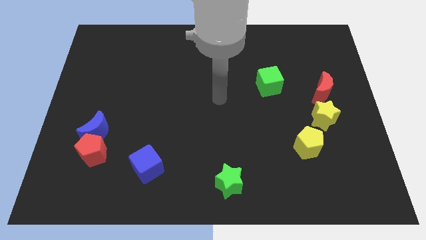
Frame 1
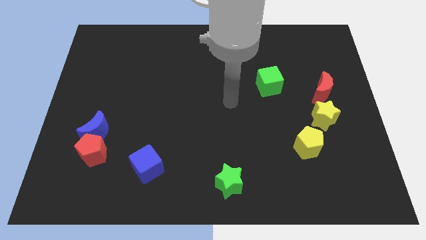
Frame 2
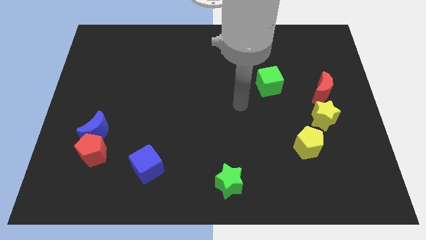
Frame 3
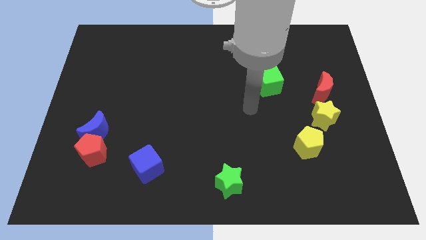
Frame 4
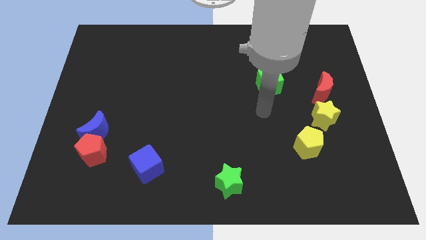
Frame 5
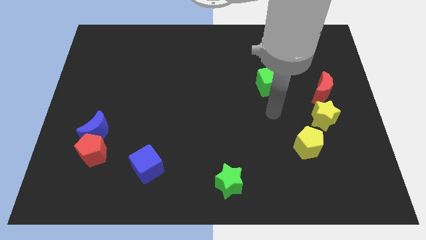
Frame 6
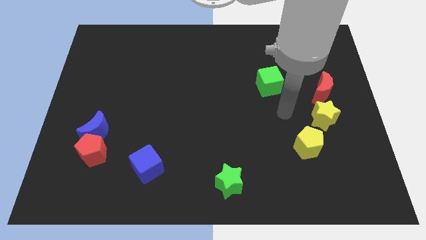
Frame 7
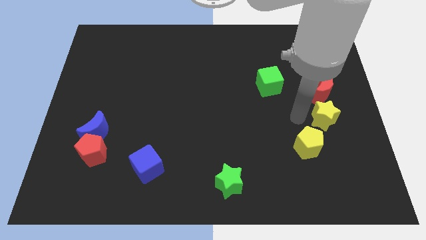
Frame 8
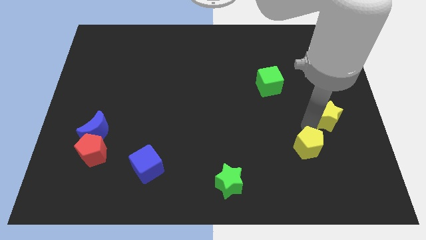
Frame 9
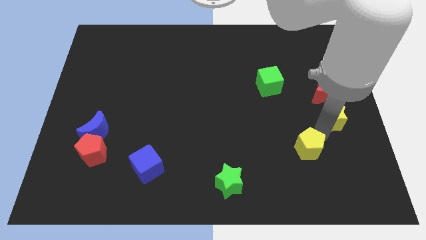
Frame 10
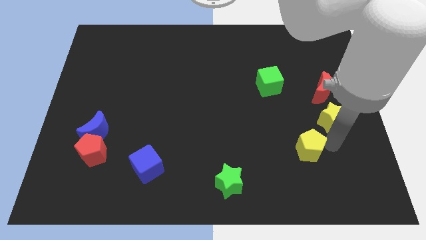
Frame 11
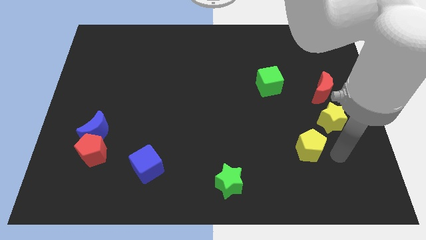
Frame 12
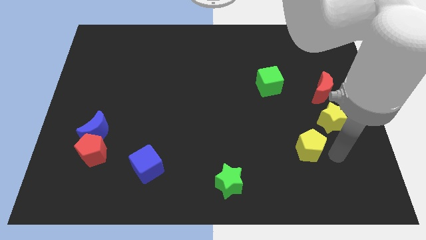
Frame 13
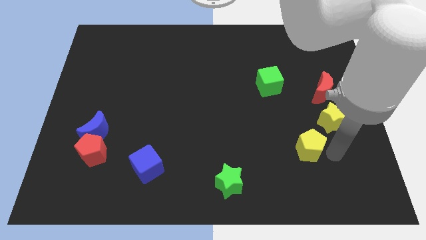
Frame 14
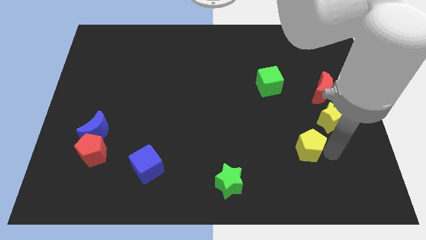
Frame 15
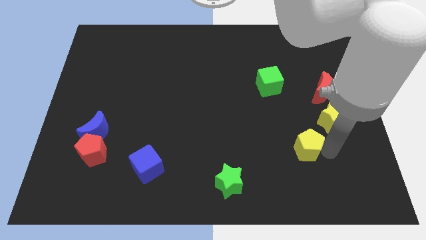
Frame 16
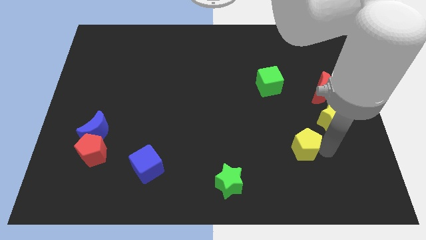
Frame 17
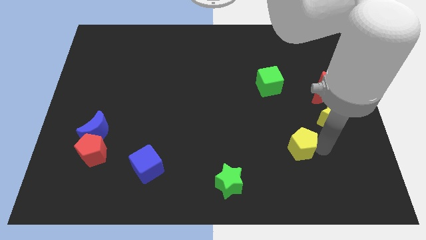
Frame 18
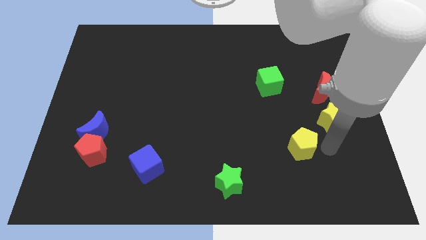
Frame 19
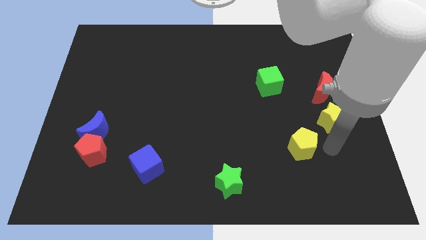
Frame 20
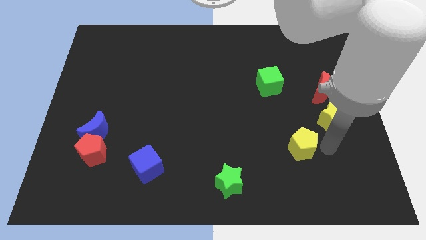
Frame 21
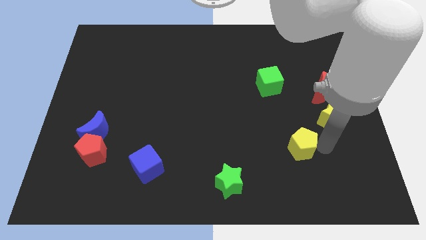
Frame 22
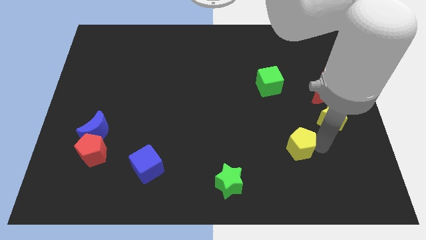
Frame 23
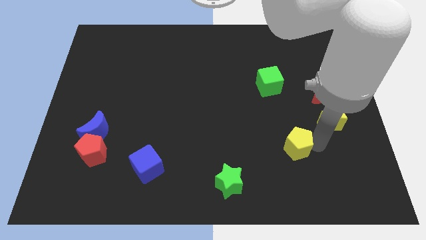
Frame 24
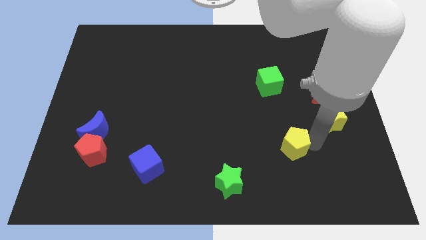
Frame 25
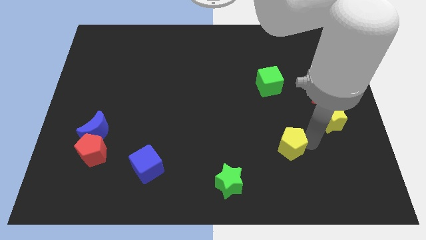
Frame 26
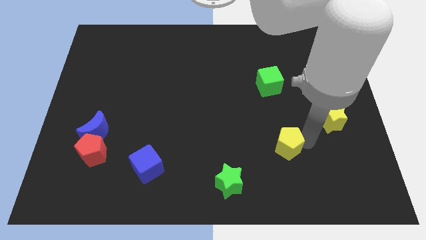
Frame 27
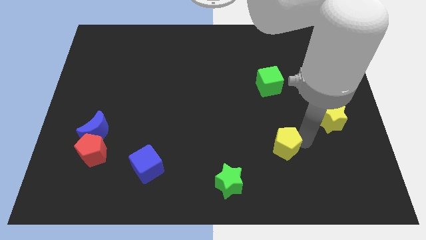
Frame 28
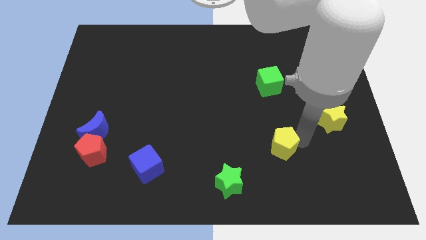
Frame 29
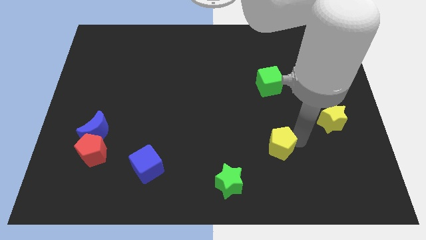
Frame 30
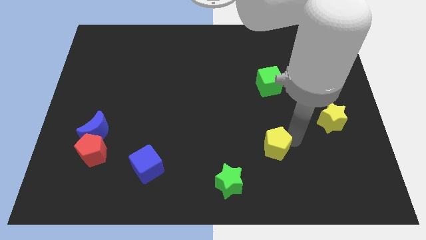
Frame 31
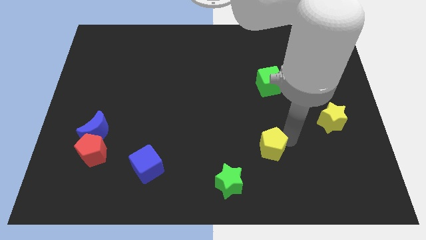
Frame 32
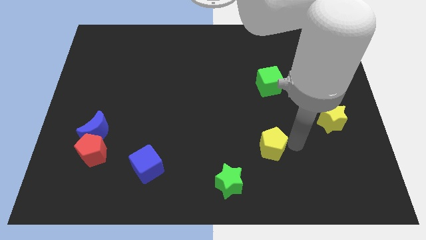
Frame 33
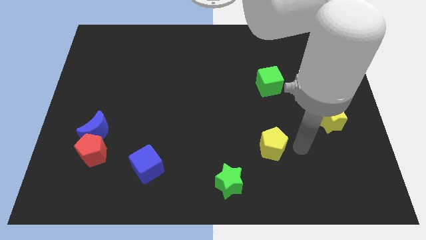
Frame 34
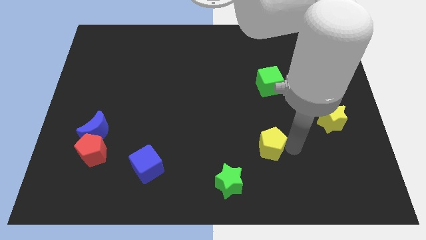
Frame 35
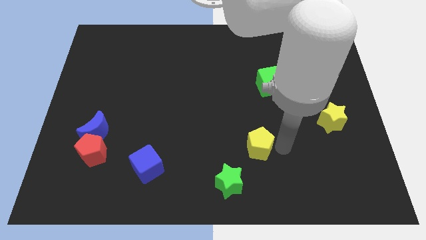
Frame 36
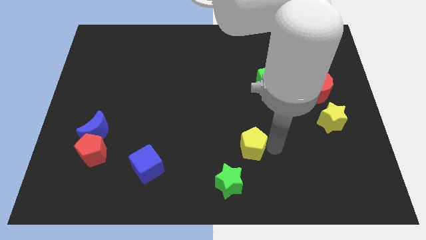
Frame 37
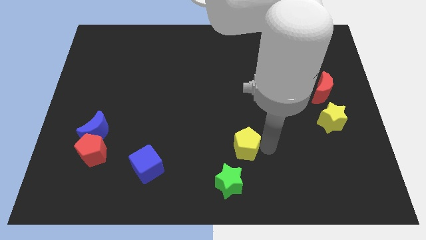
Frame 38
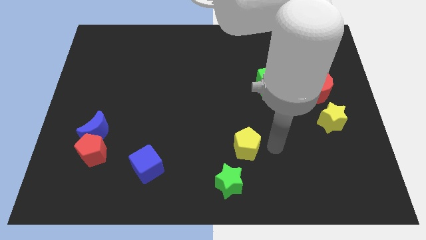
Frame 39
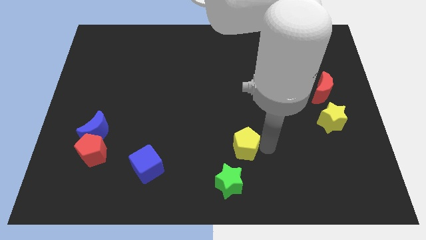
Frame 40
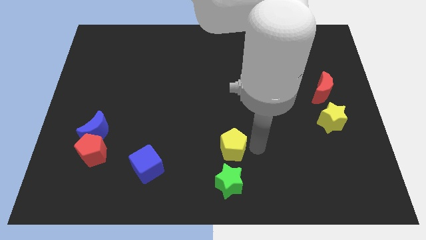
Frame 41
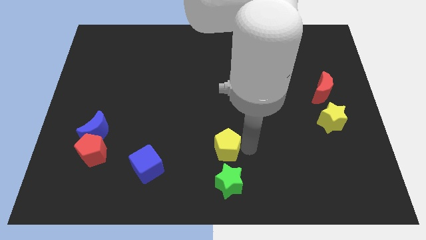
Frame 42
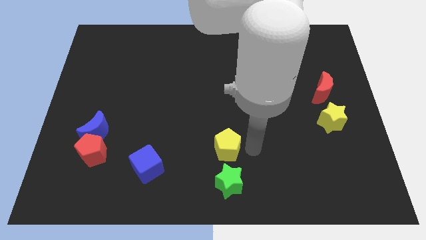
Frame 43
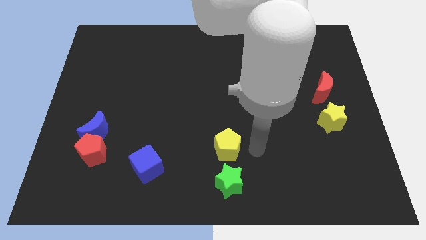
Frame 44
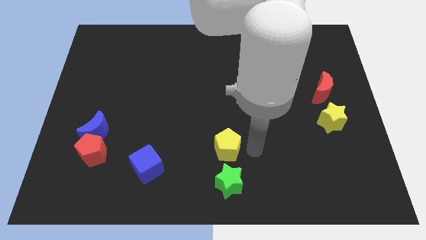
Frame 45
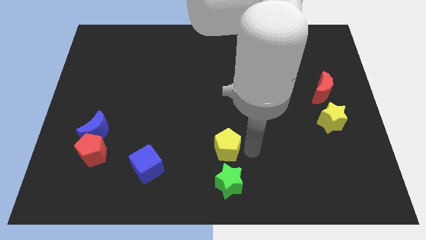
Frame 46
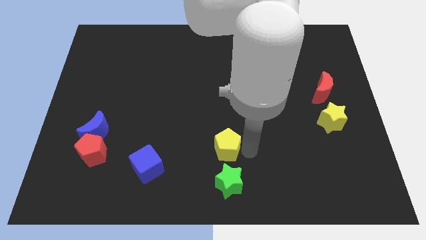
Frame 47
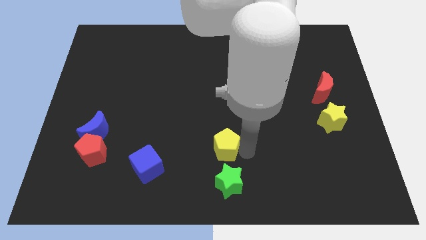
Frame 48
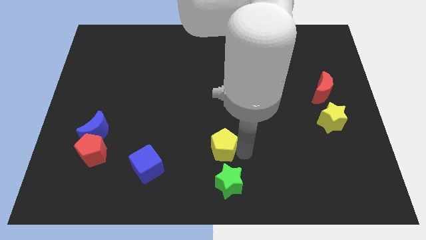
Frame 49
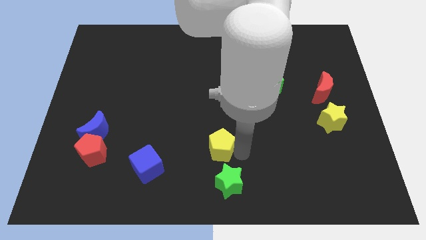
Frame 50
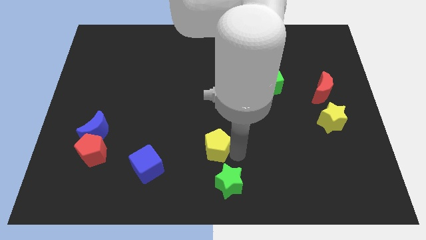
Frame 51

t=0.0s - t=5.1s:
slide the yellow pentagon to the left

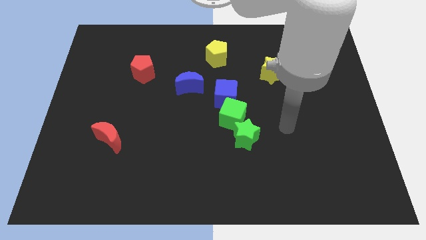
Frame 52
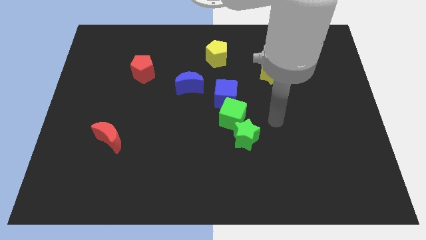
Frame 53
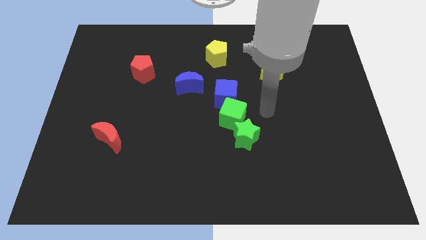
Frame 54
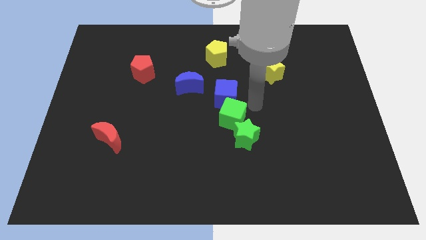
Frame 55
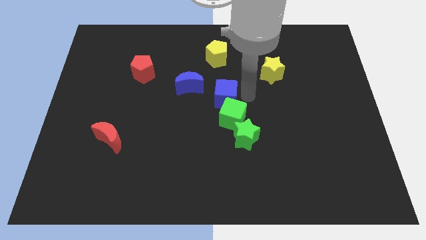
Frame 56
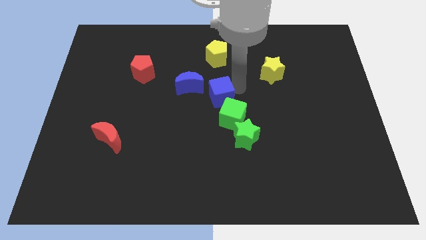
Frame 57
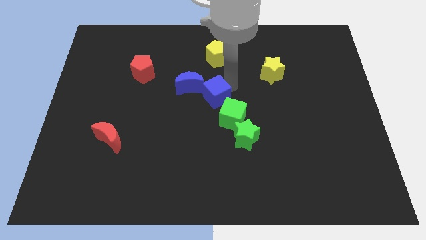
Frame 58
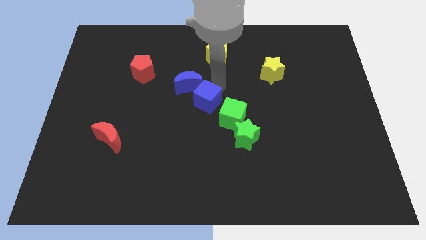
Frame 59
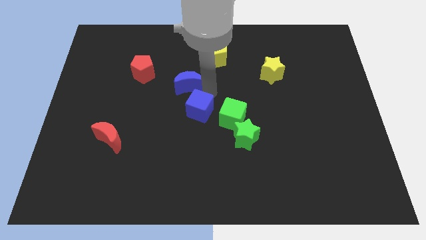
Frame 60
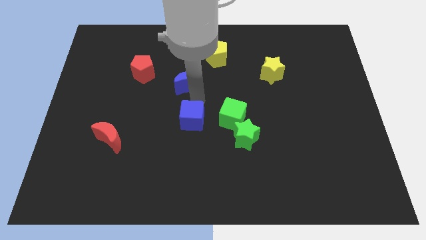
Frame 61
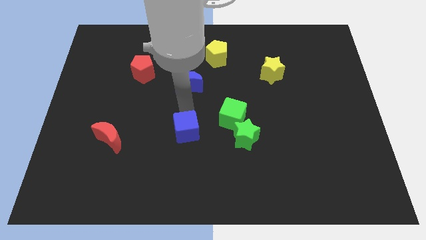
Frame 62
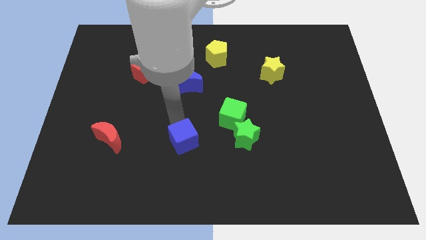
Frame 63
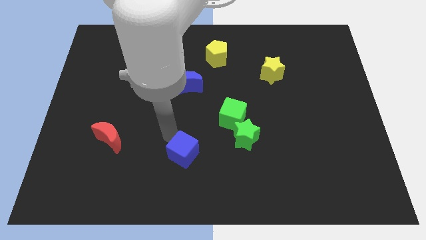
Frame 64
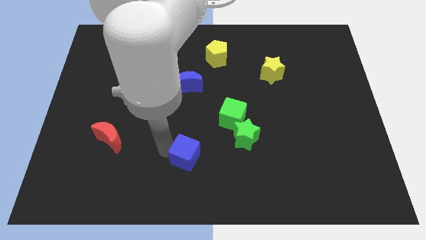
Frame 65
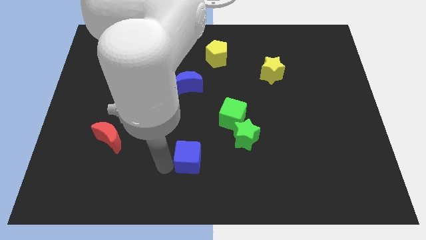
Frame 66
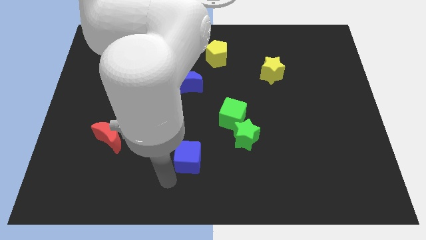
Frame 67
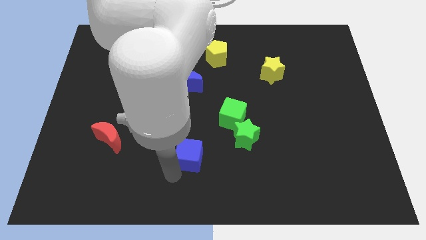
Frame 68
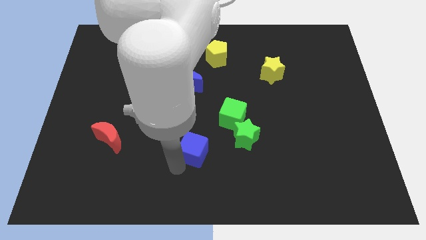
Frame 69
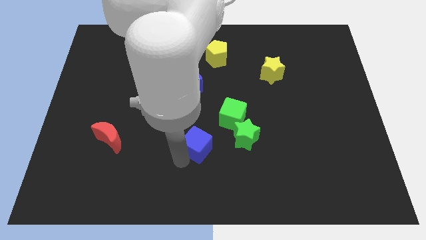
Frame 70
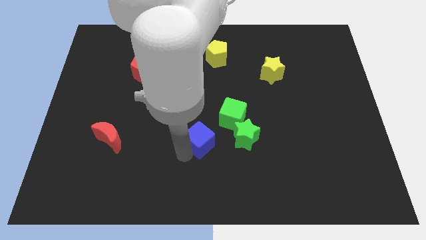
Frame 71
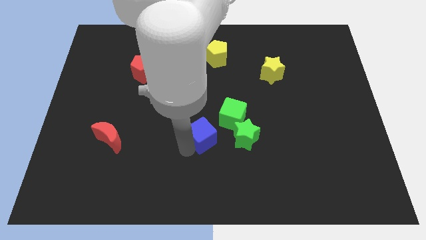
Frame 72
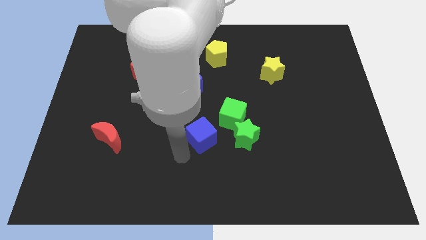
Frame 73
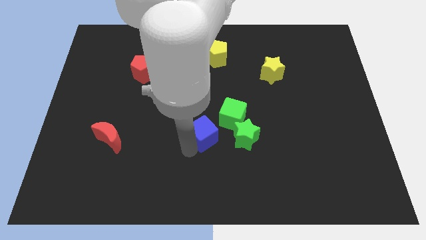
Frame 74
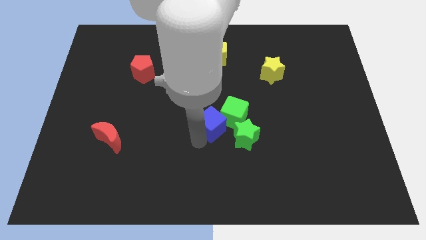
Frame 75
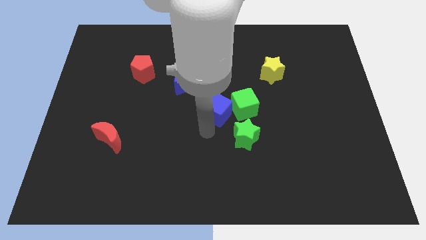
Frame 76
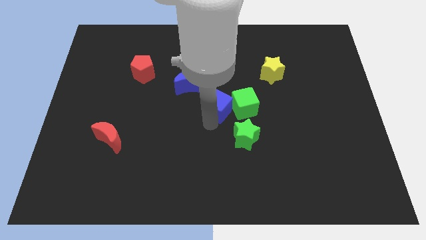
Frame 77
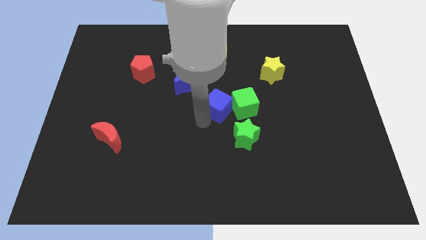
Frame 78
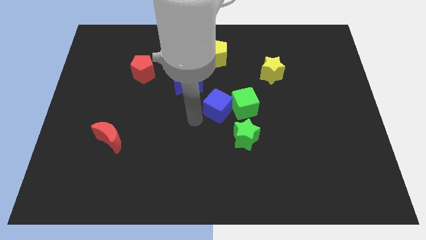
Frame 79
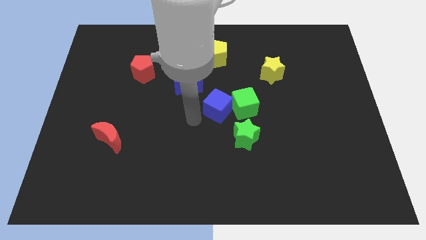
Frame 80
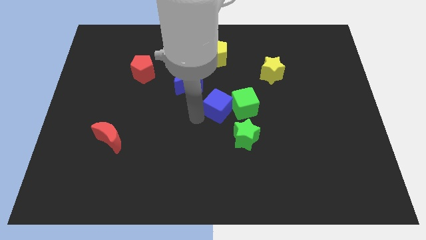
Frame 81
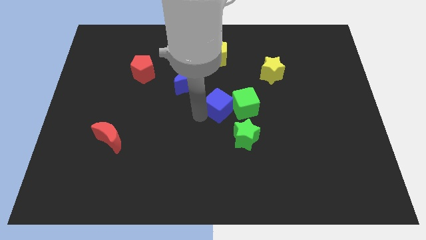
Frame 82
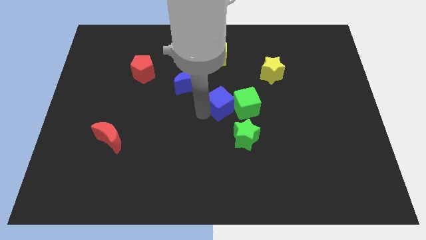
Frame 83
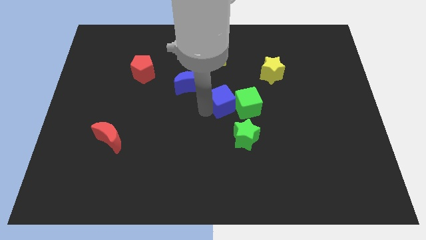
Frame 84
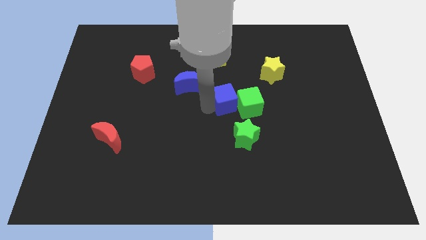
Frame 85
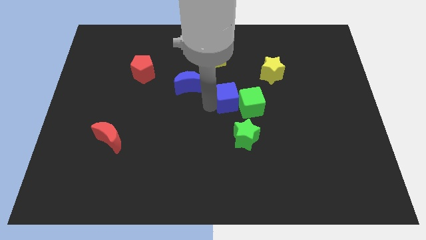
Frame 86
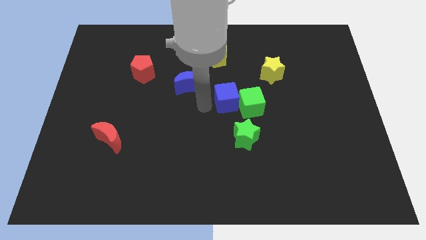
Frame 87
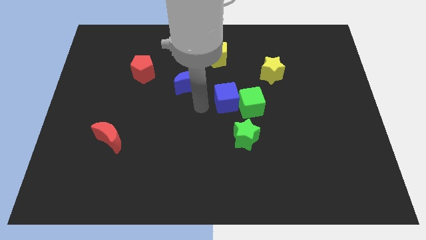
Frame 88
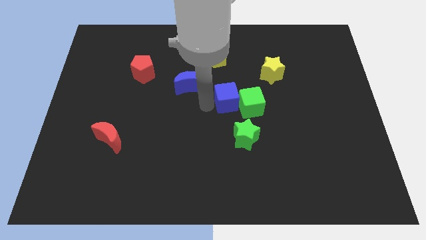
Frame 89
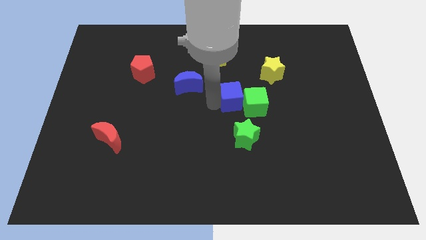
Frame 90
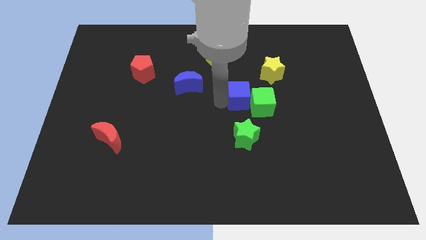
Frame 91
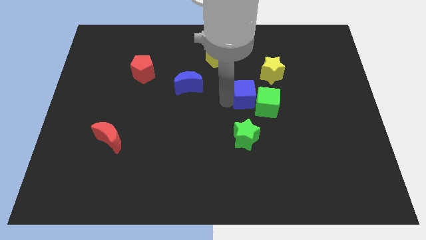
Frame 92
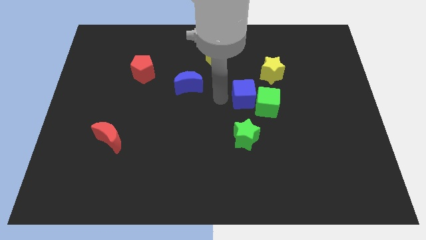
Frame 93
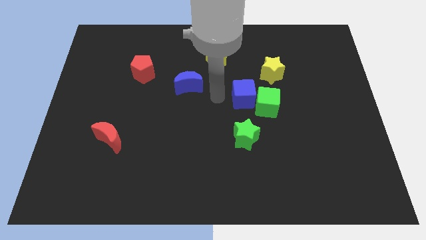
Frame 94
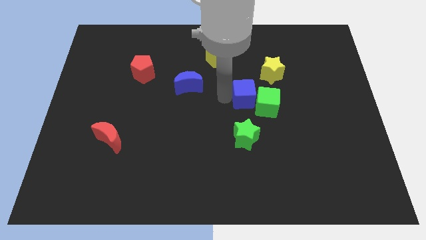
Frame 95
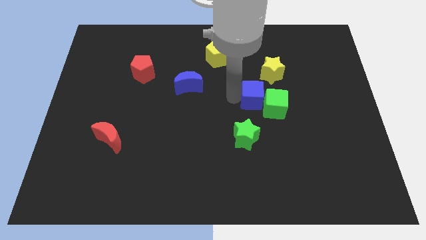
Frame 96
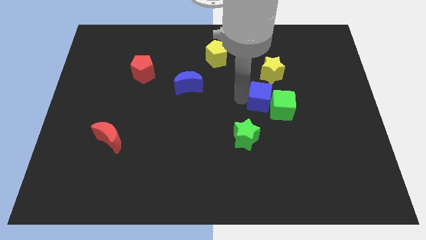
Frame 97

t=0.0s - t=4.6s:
slightly push the blue cube to the right
